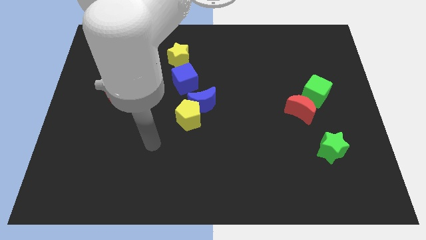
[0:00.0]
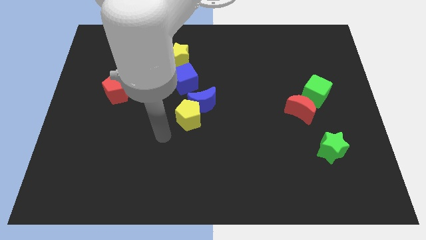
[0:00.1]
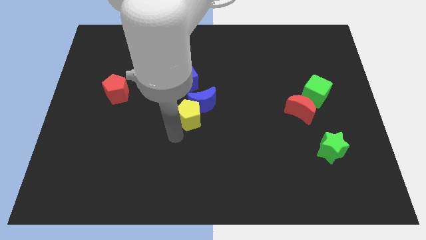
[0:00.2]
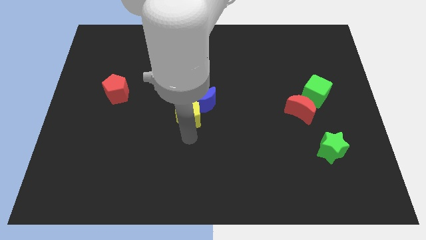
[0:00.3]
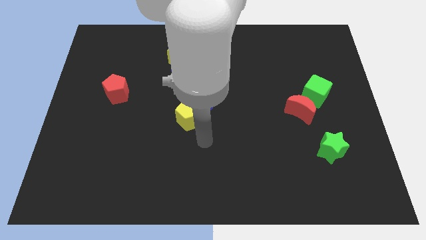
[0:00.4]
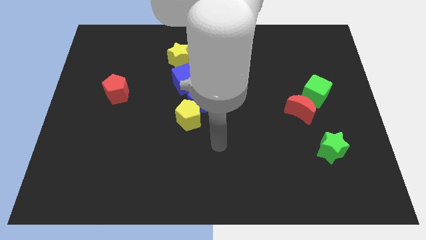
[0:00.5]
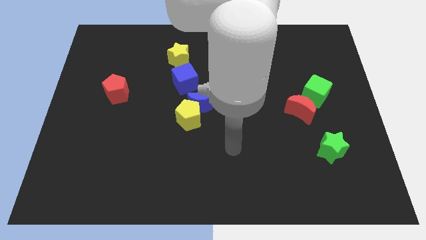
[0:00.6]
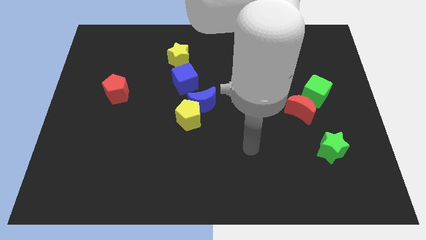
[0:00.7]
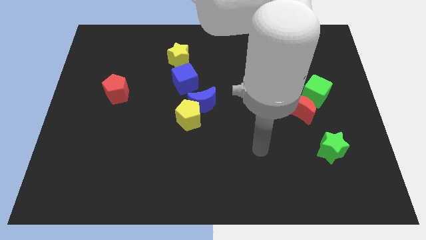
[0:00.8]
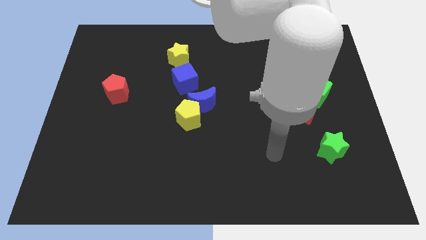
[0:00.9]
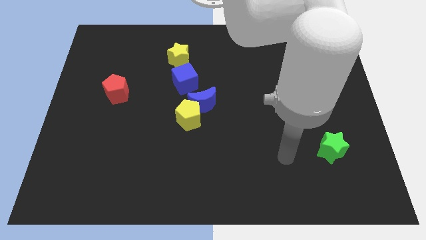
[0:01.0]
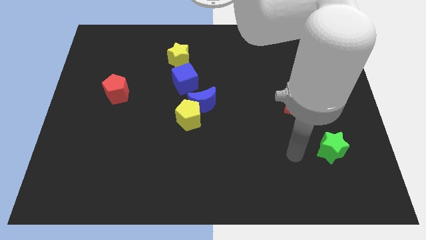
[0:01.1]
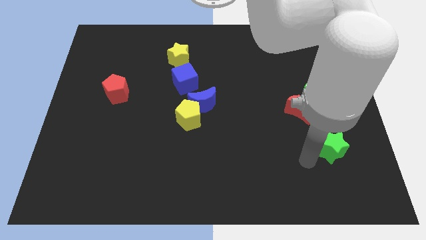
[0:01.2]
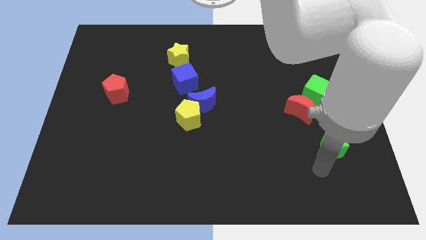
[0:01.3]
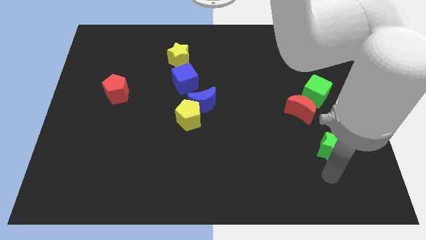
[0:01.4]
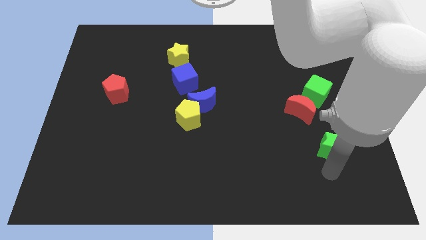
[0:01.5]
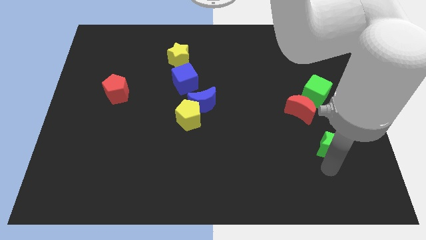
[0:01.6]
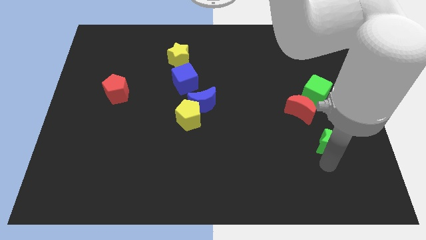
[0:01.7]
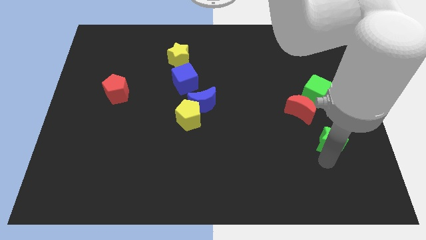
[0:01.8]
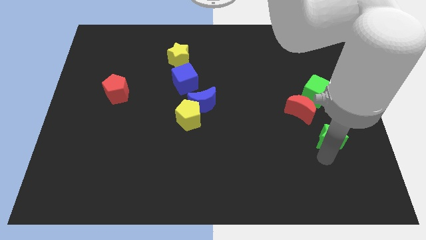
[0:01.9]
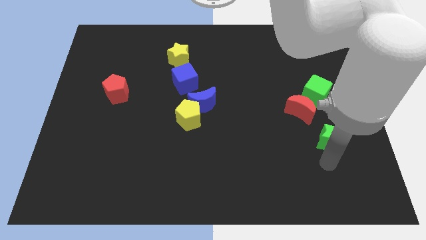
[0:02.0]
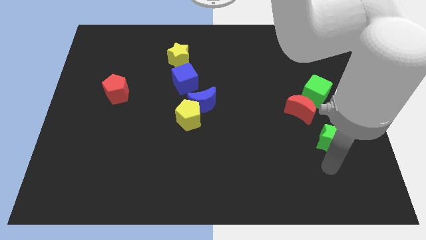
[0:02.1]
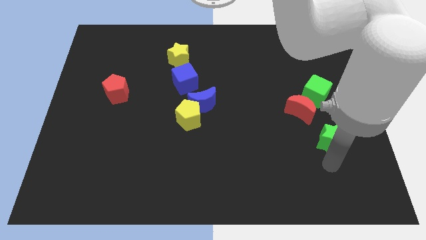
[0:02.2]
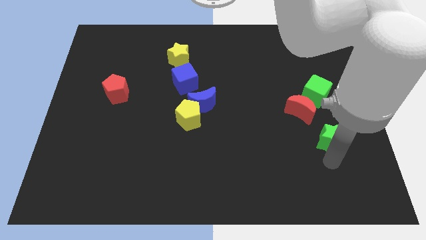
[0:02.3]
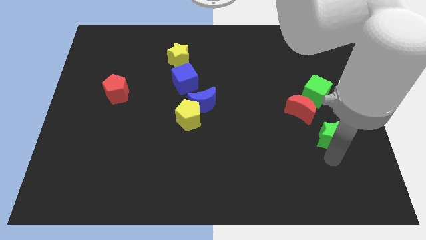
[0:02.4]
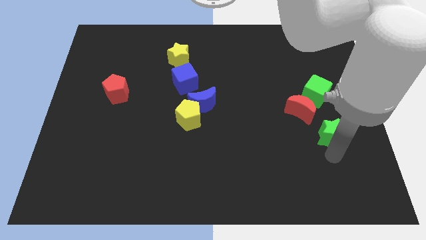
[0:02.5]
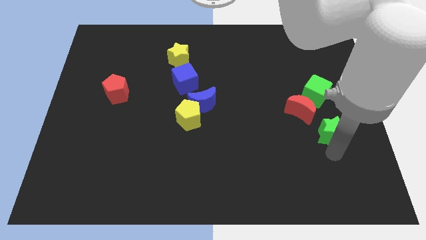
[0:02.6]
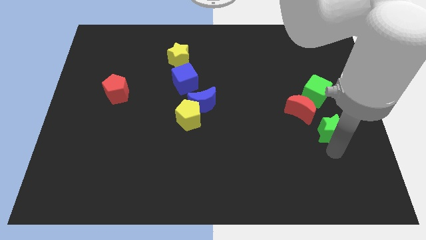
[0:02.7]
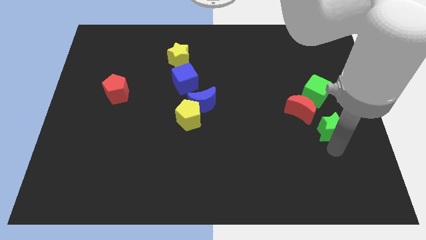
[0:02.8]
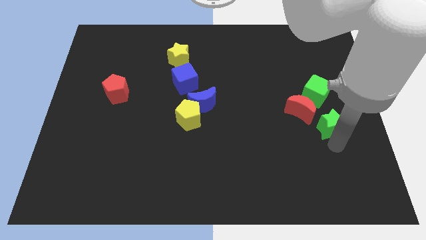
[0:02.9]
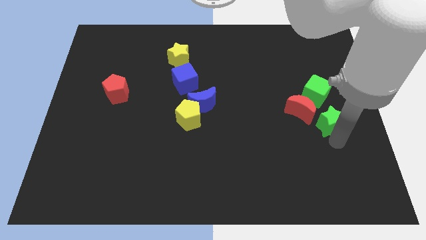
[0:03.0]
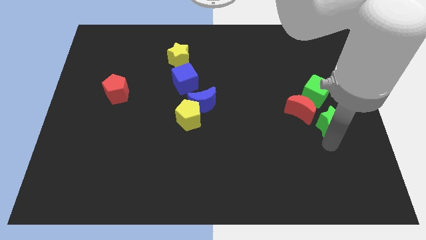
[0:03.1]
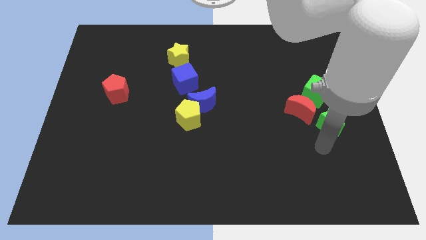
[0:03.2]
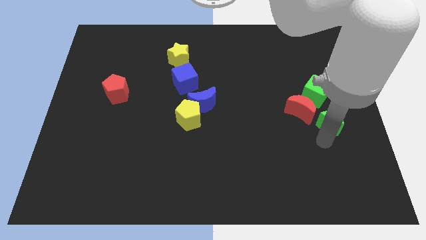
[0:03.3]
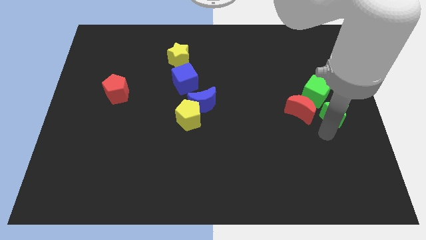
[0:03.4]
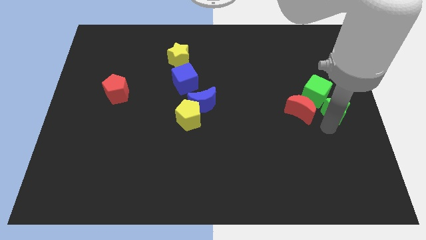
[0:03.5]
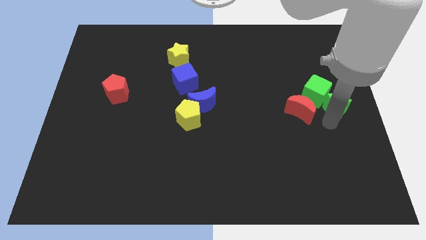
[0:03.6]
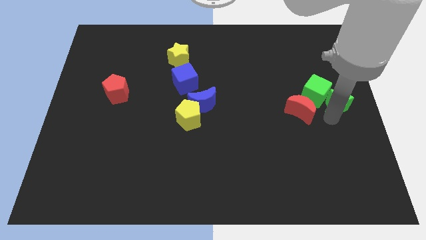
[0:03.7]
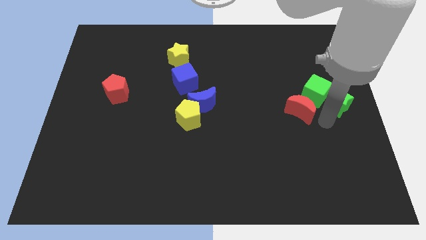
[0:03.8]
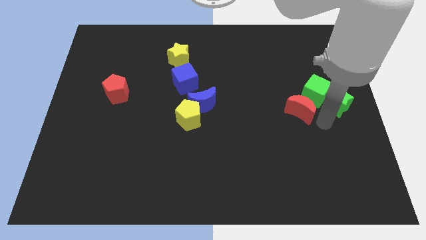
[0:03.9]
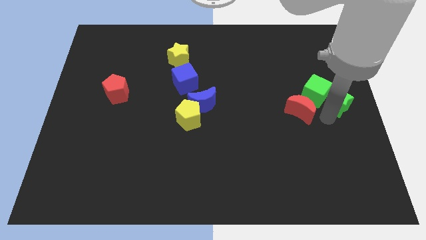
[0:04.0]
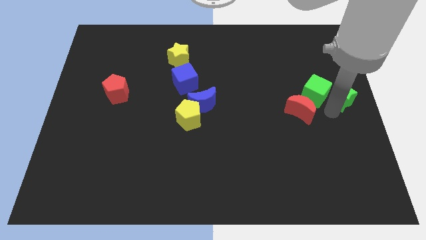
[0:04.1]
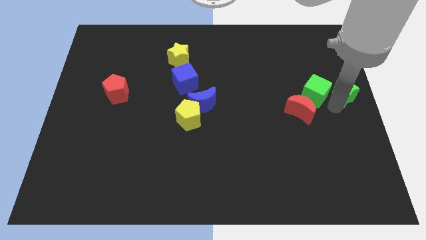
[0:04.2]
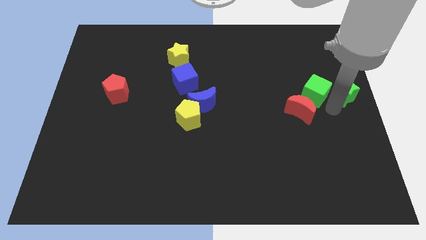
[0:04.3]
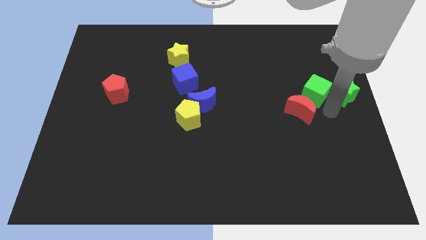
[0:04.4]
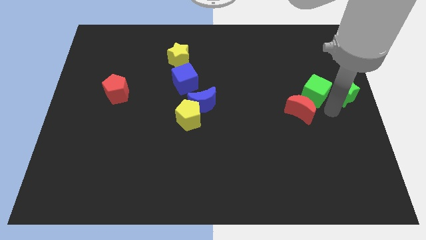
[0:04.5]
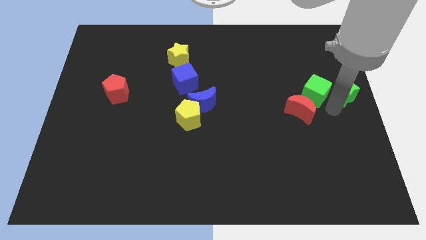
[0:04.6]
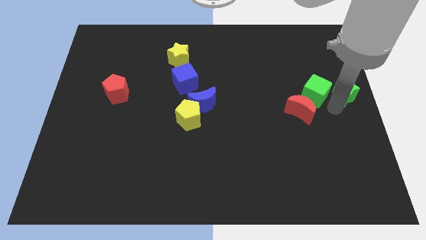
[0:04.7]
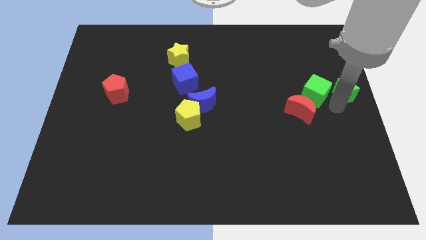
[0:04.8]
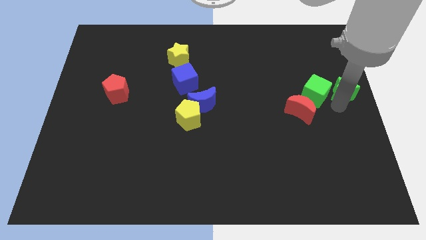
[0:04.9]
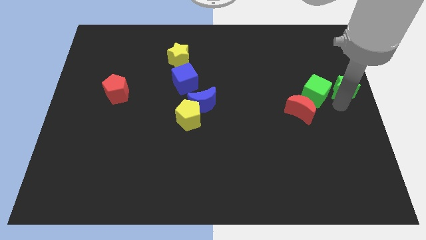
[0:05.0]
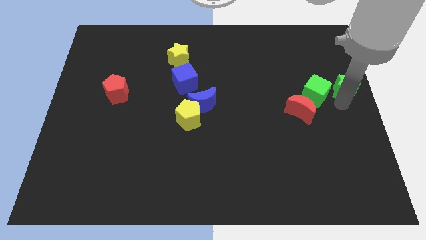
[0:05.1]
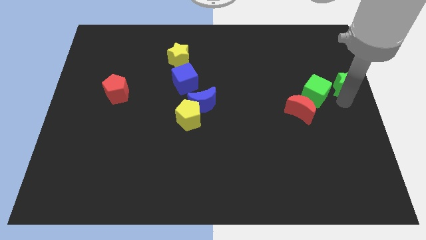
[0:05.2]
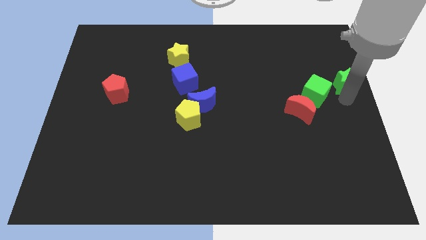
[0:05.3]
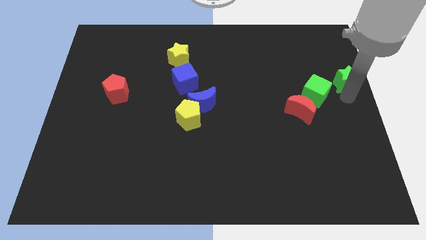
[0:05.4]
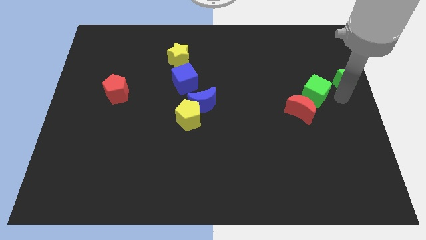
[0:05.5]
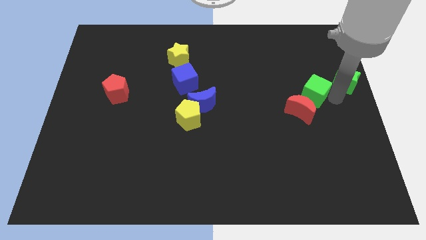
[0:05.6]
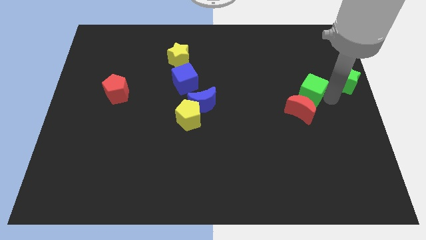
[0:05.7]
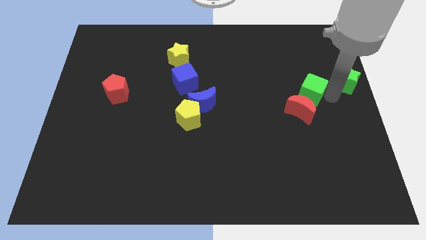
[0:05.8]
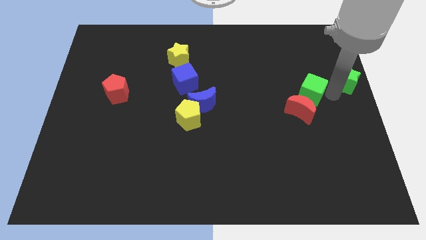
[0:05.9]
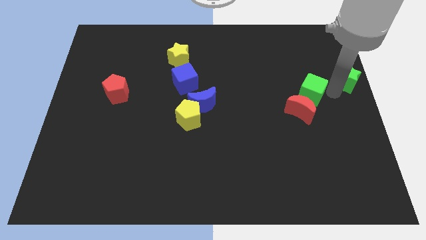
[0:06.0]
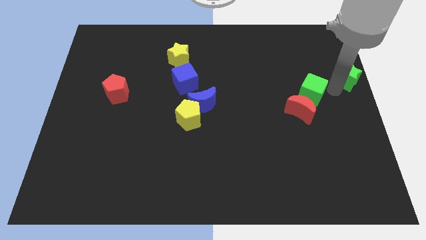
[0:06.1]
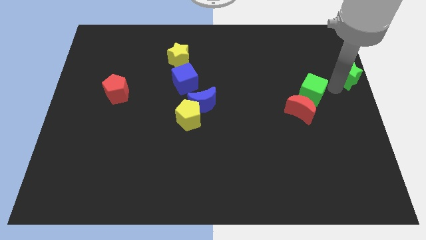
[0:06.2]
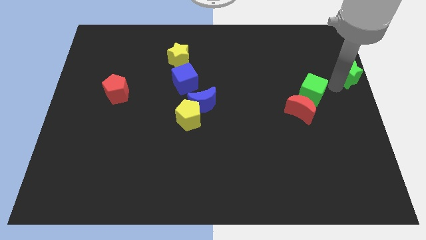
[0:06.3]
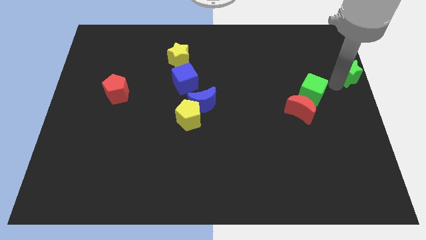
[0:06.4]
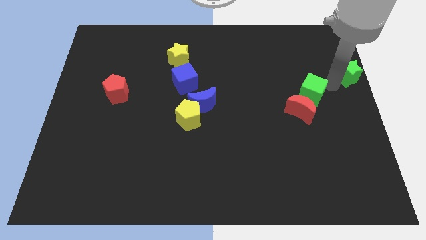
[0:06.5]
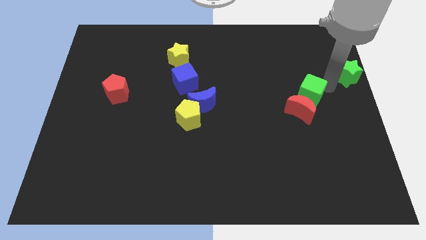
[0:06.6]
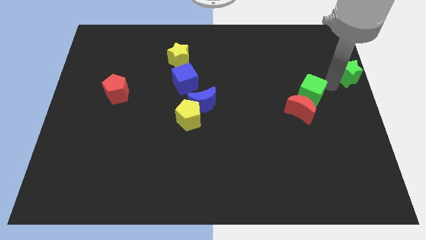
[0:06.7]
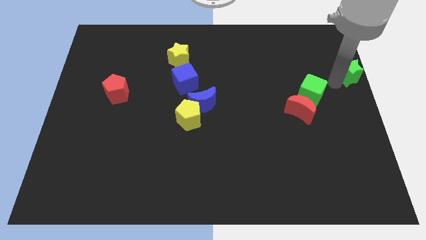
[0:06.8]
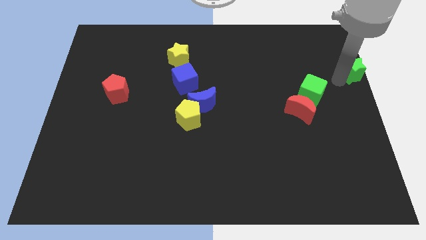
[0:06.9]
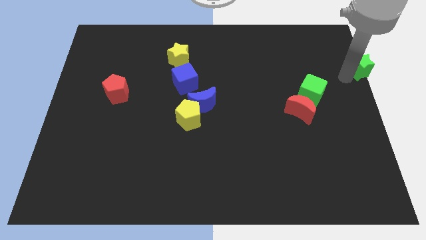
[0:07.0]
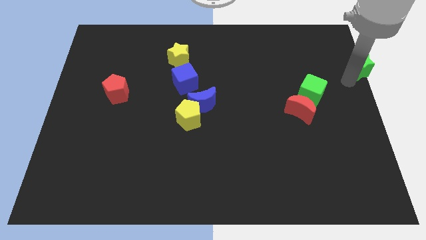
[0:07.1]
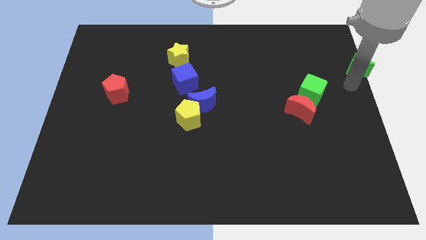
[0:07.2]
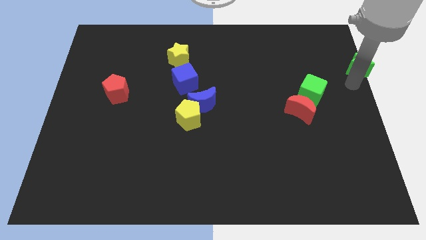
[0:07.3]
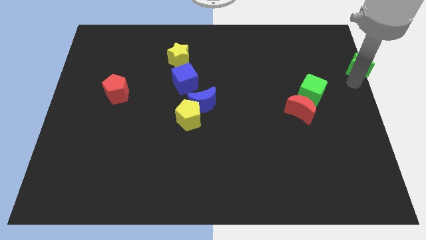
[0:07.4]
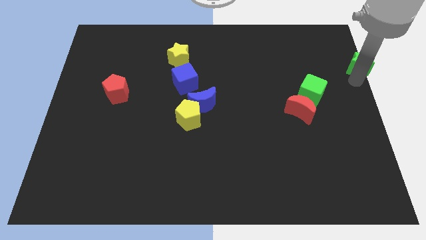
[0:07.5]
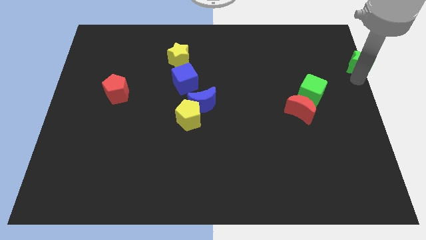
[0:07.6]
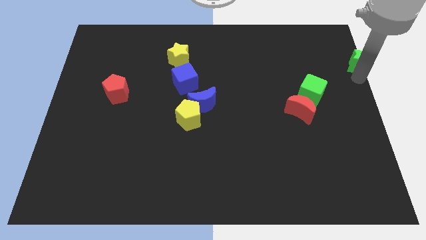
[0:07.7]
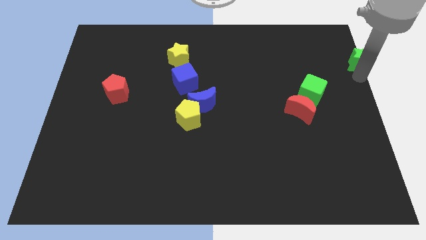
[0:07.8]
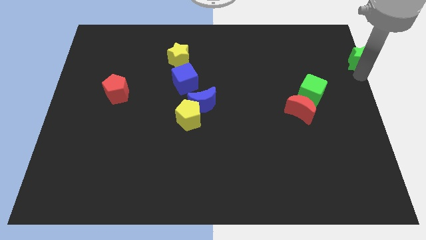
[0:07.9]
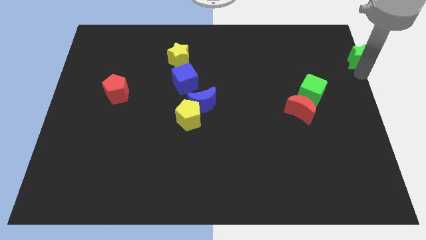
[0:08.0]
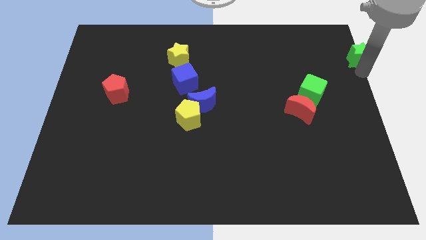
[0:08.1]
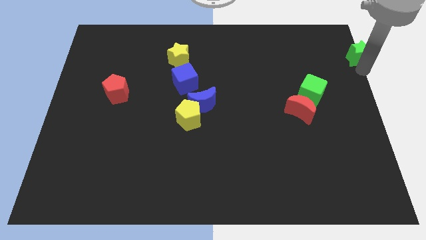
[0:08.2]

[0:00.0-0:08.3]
move the green star to the upper right corner
